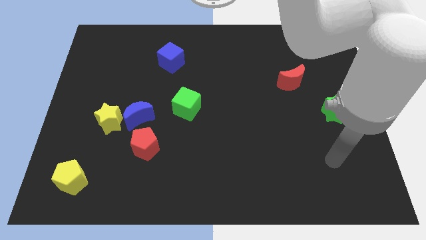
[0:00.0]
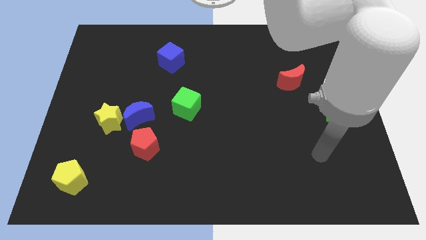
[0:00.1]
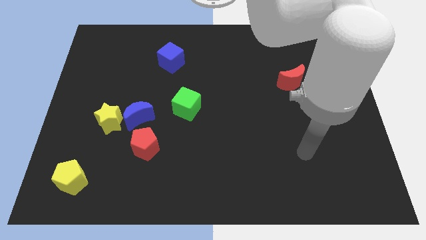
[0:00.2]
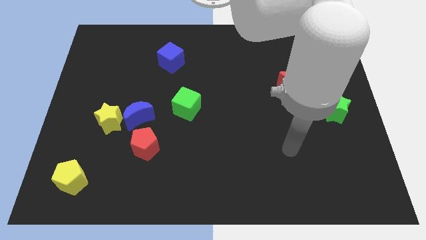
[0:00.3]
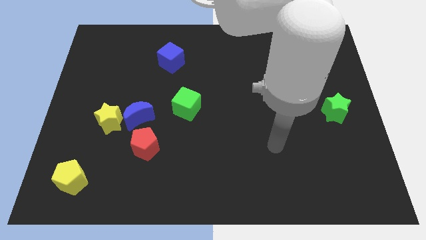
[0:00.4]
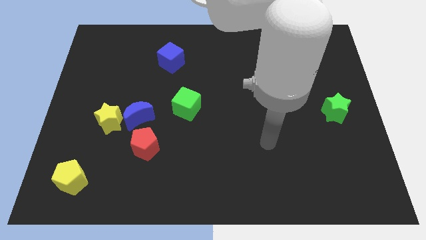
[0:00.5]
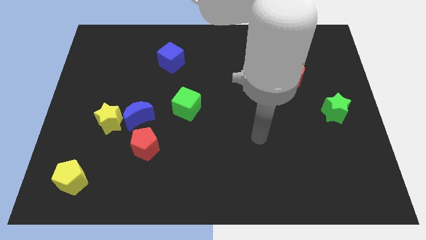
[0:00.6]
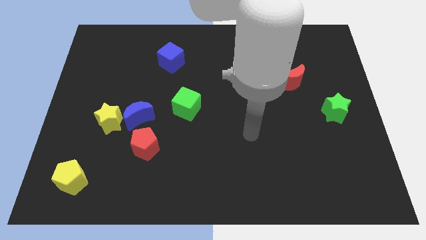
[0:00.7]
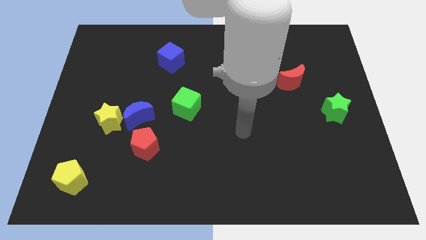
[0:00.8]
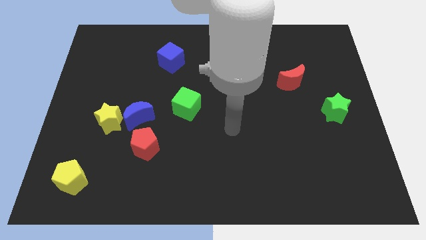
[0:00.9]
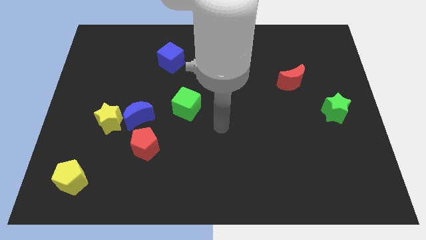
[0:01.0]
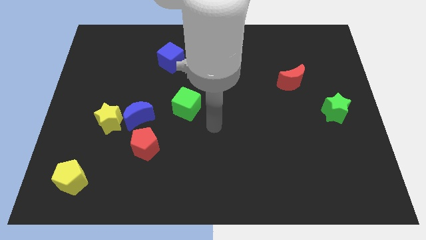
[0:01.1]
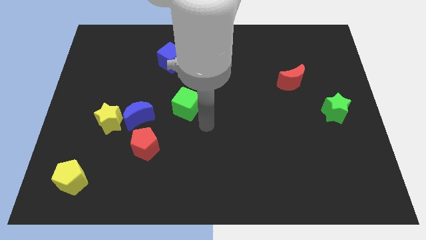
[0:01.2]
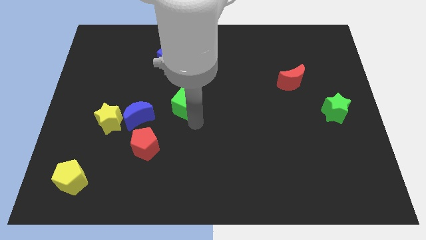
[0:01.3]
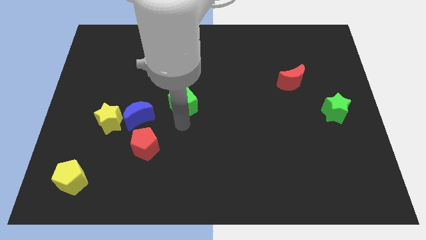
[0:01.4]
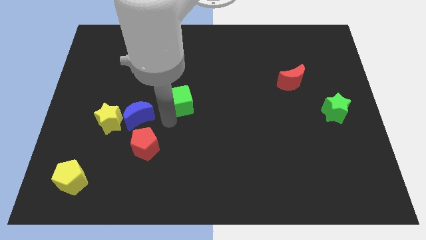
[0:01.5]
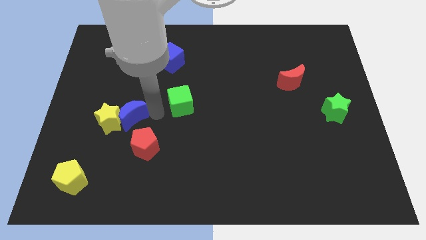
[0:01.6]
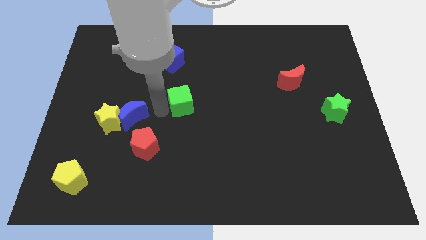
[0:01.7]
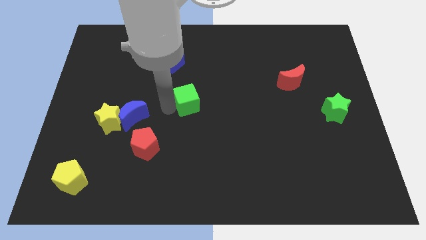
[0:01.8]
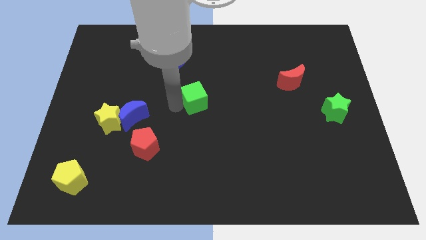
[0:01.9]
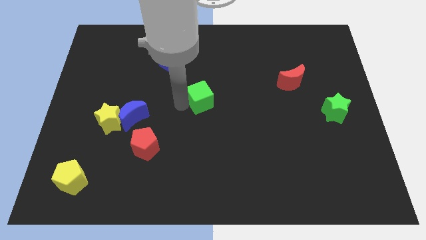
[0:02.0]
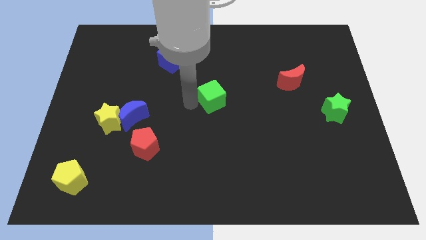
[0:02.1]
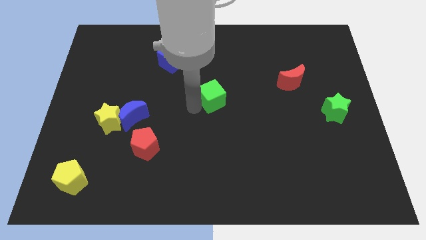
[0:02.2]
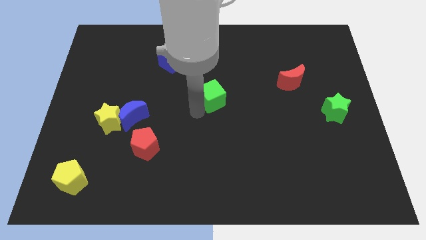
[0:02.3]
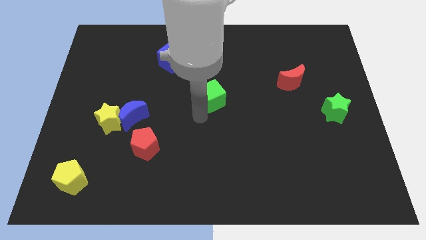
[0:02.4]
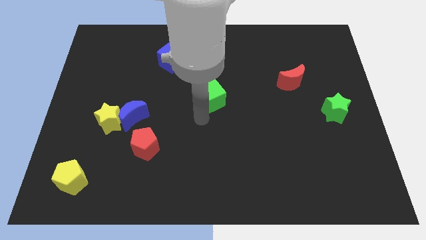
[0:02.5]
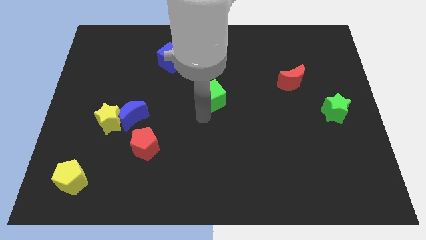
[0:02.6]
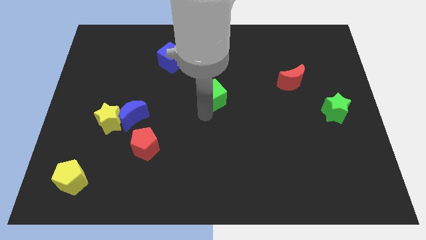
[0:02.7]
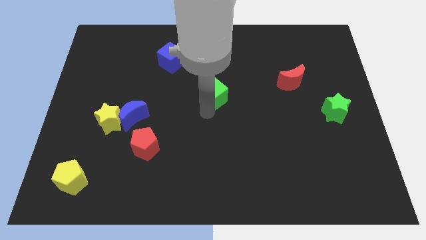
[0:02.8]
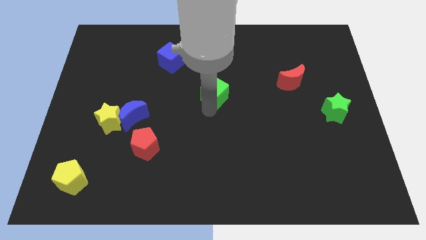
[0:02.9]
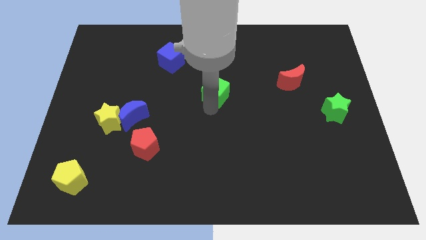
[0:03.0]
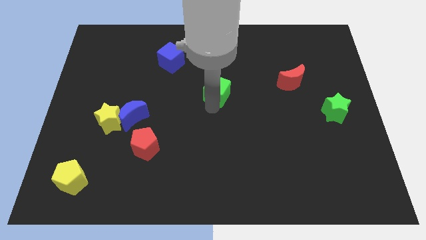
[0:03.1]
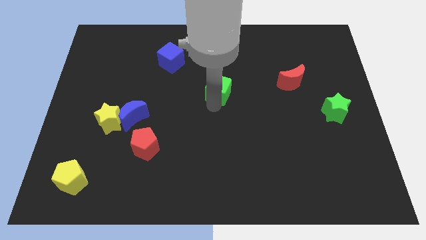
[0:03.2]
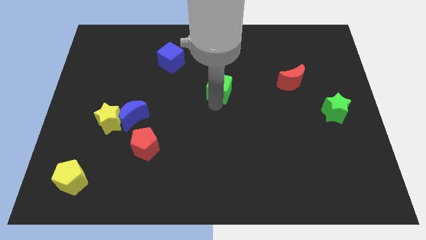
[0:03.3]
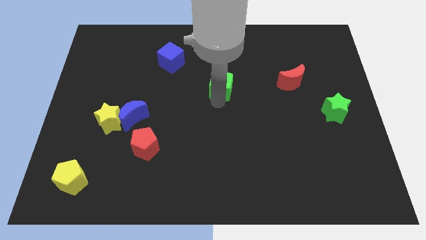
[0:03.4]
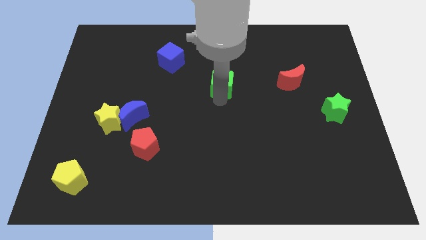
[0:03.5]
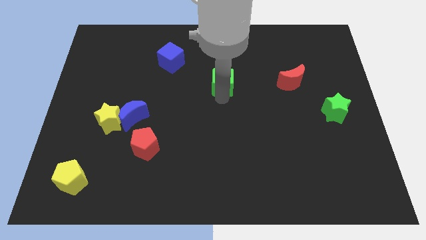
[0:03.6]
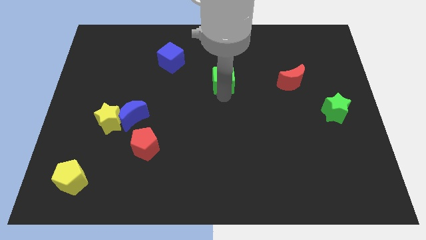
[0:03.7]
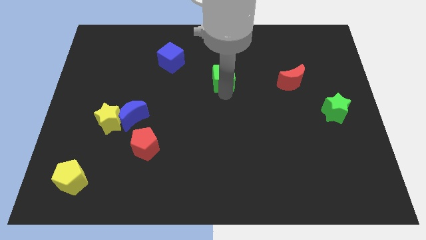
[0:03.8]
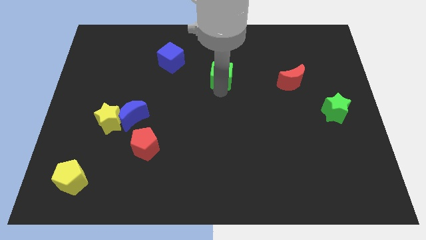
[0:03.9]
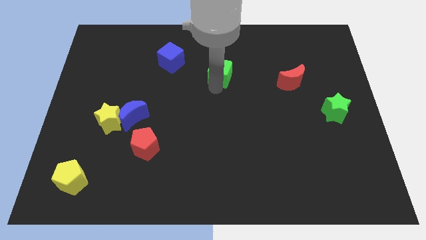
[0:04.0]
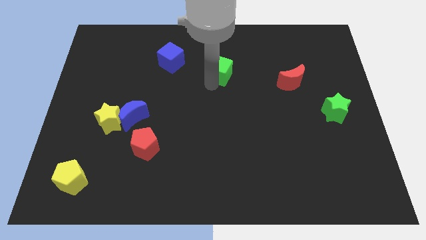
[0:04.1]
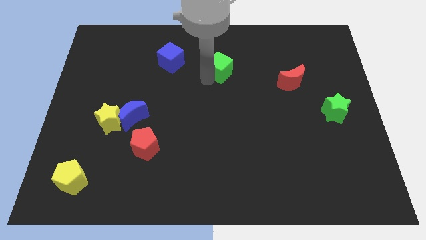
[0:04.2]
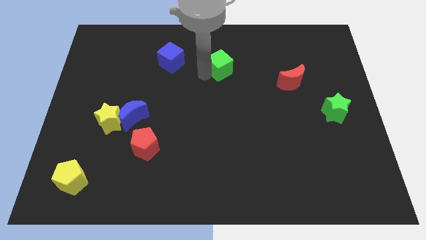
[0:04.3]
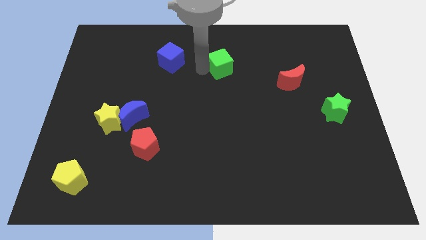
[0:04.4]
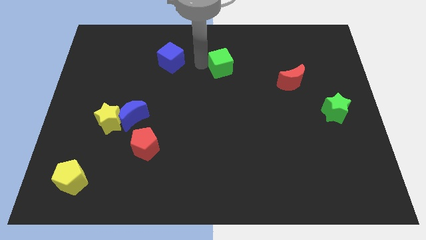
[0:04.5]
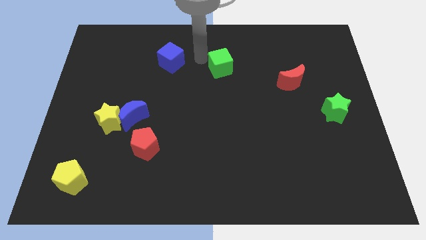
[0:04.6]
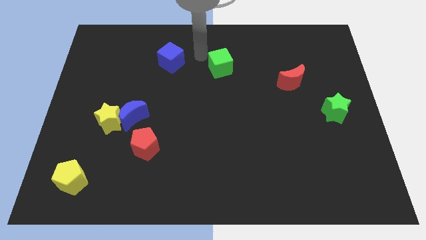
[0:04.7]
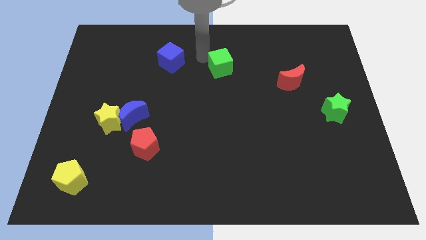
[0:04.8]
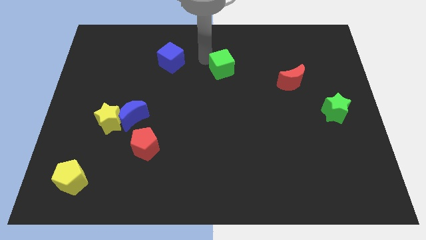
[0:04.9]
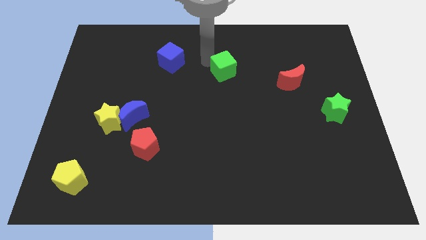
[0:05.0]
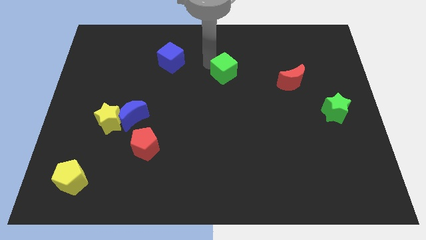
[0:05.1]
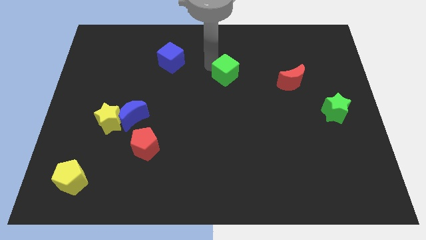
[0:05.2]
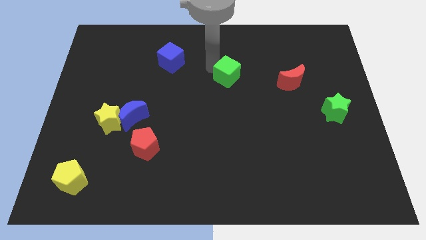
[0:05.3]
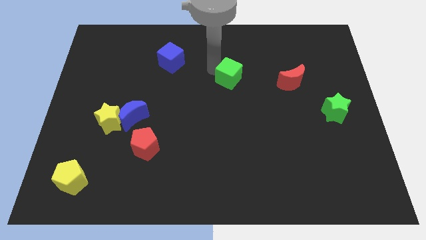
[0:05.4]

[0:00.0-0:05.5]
put the green cube just left of the red moon

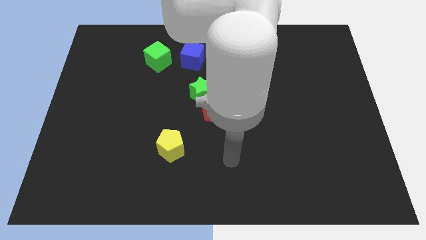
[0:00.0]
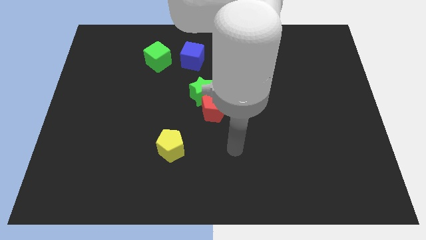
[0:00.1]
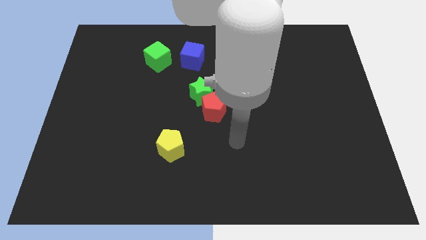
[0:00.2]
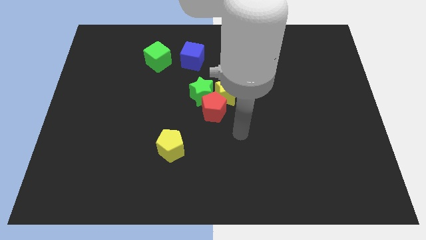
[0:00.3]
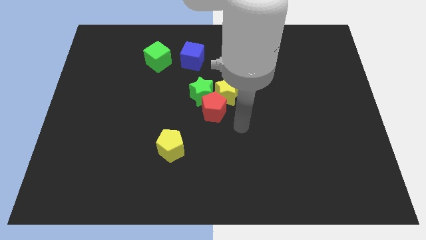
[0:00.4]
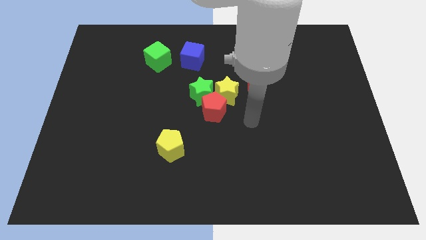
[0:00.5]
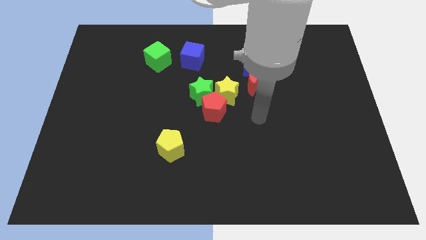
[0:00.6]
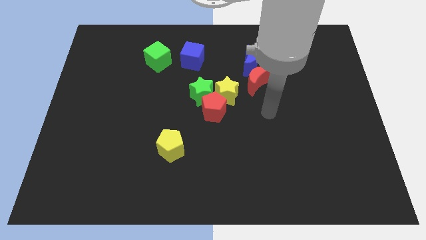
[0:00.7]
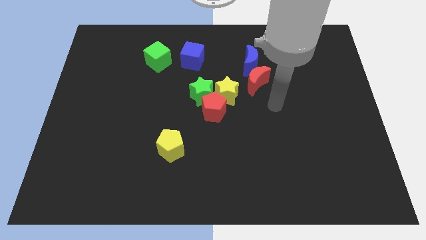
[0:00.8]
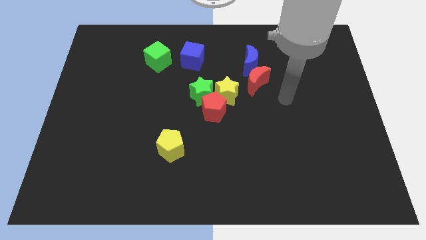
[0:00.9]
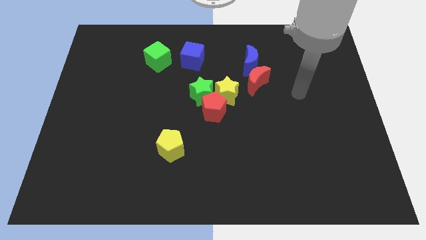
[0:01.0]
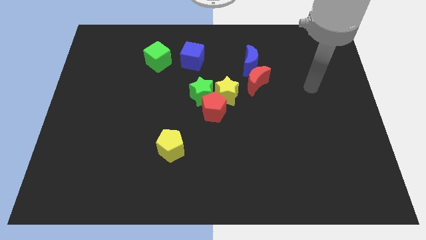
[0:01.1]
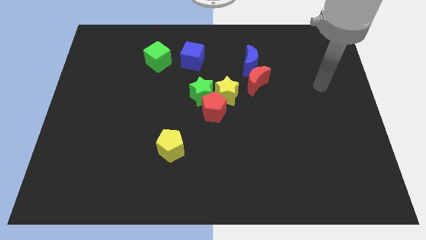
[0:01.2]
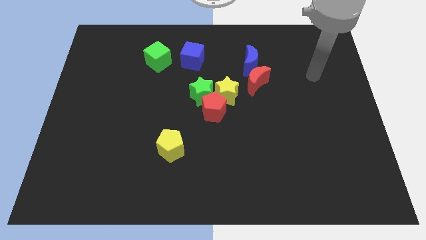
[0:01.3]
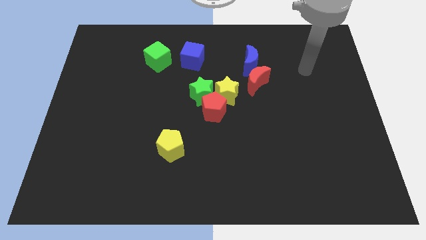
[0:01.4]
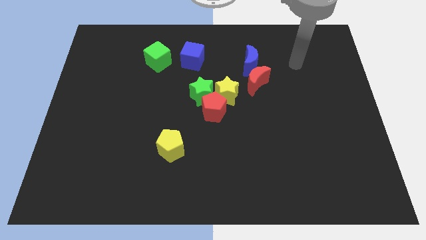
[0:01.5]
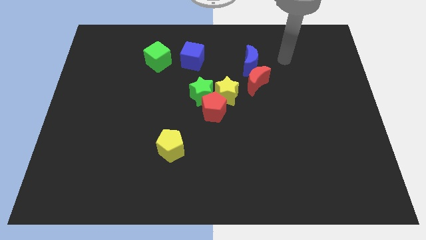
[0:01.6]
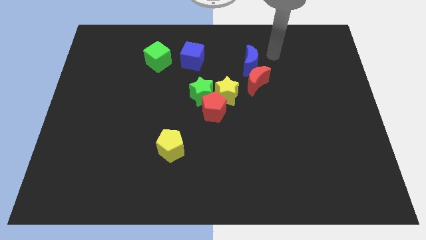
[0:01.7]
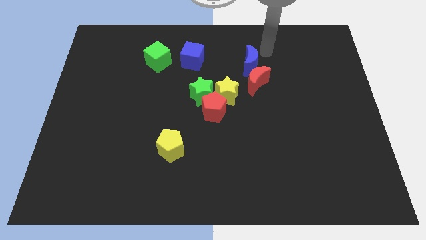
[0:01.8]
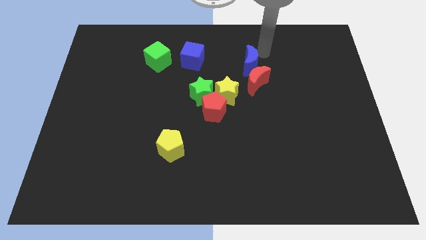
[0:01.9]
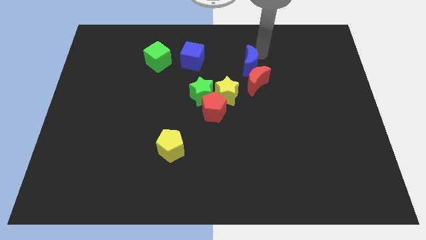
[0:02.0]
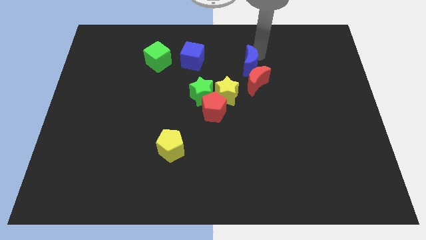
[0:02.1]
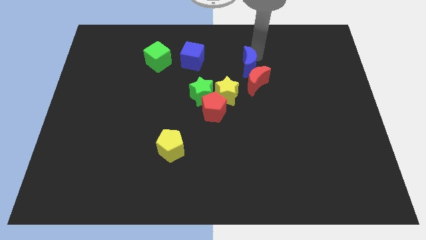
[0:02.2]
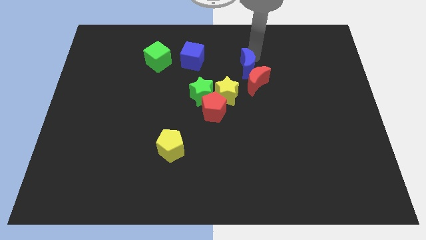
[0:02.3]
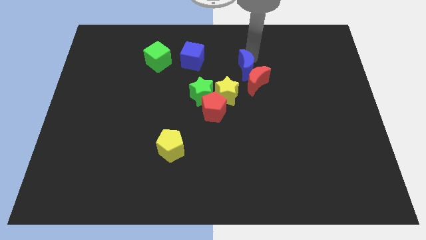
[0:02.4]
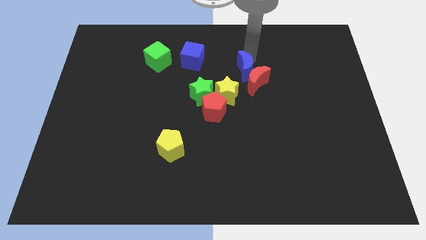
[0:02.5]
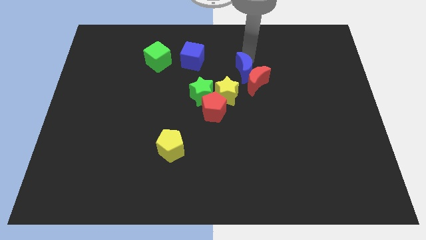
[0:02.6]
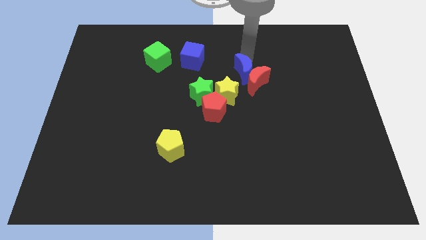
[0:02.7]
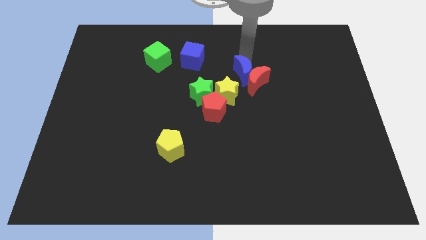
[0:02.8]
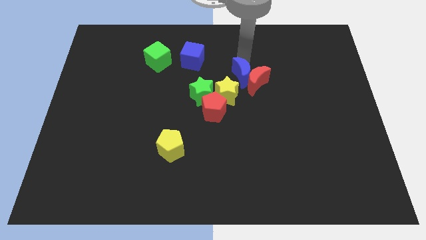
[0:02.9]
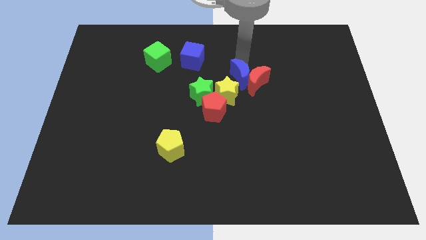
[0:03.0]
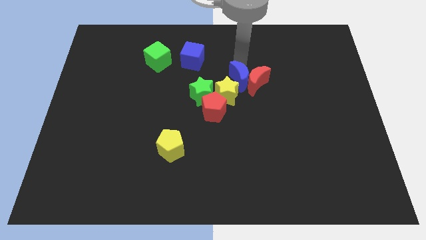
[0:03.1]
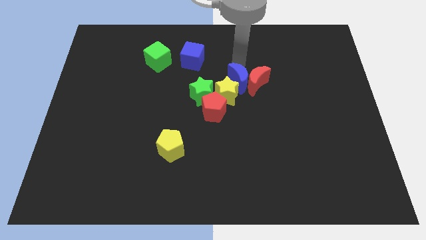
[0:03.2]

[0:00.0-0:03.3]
push the blue moon just right of the yellow star
